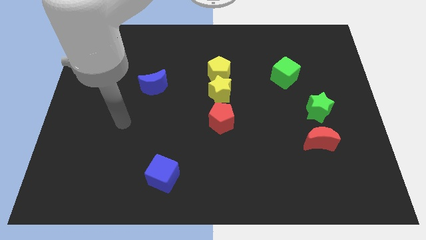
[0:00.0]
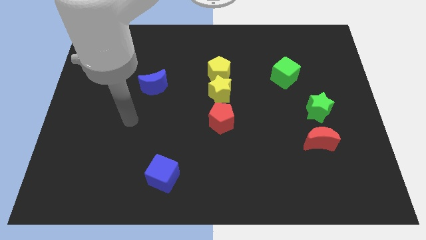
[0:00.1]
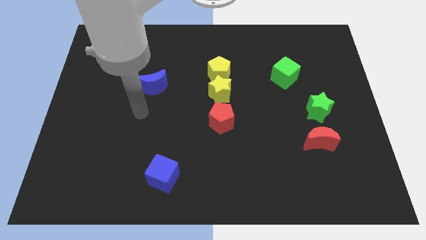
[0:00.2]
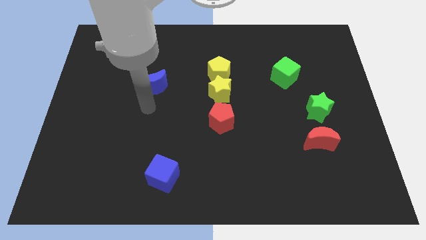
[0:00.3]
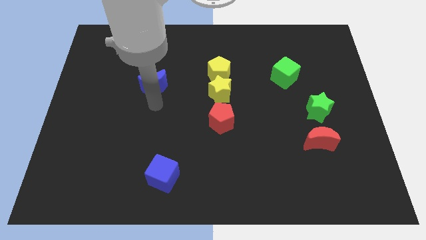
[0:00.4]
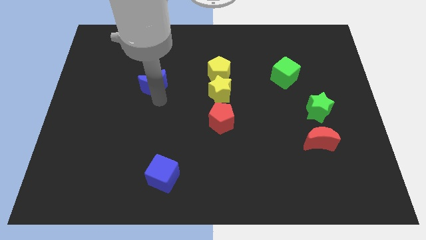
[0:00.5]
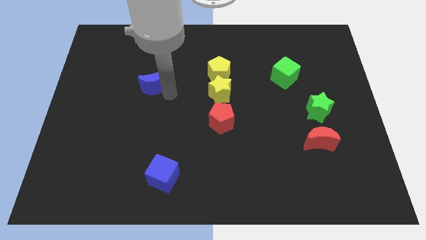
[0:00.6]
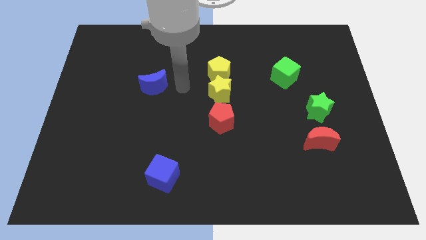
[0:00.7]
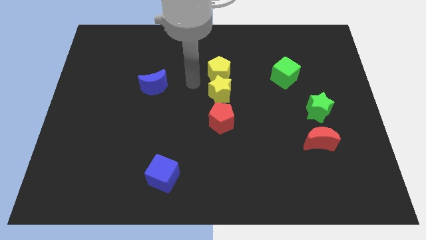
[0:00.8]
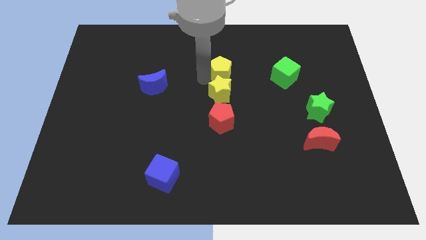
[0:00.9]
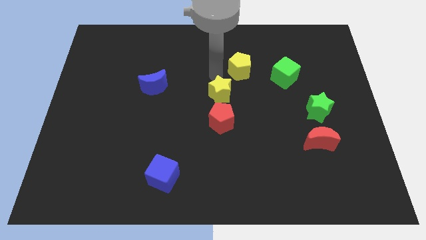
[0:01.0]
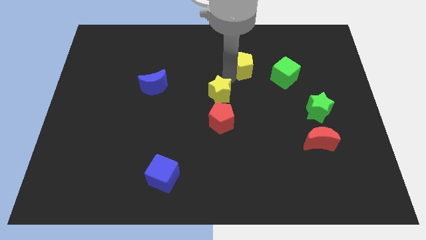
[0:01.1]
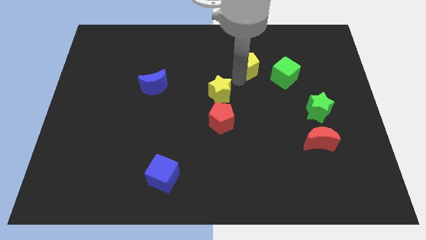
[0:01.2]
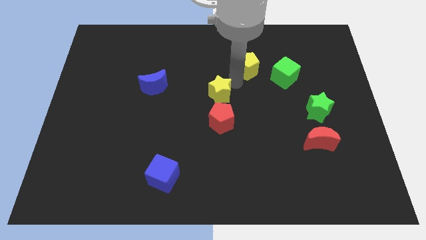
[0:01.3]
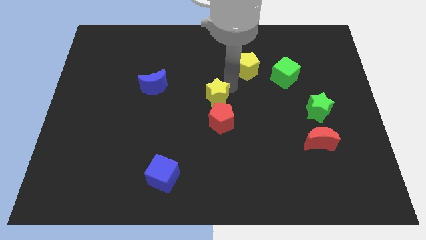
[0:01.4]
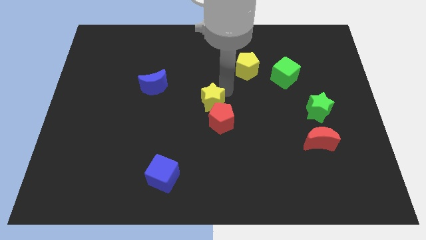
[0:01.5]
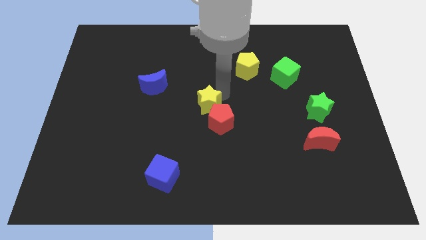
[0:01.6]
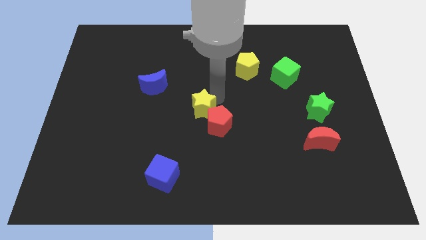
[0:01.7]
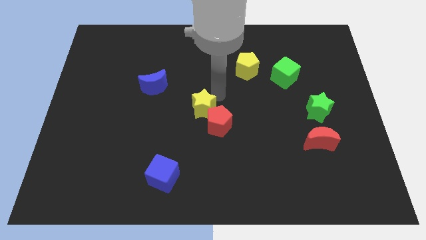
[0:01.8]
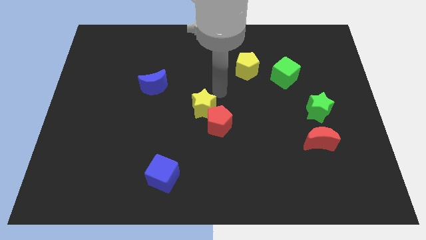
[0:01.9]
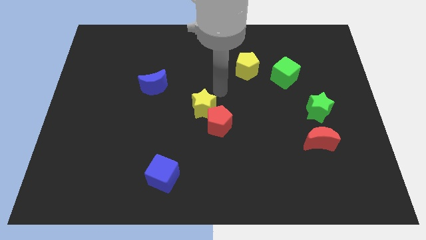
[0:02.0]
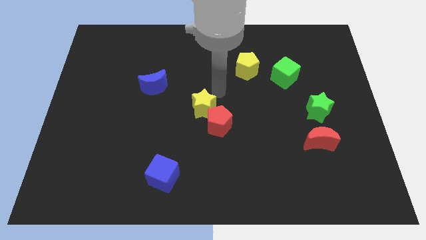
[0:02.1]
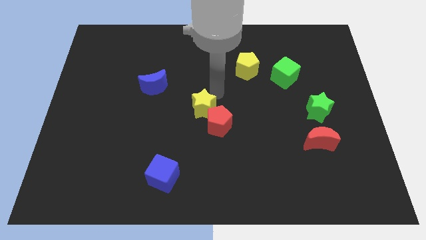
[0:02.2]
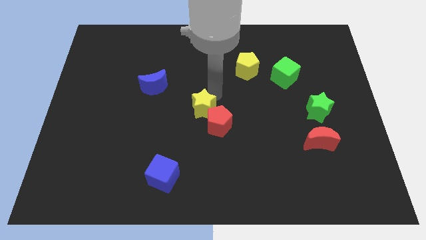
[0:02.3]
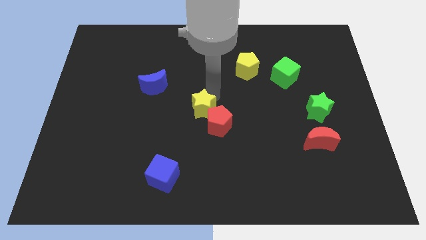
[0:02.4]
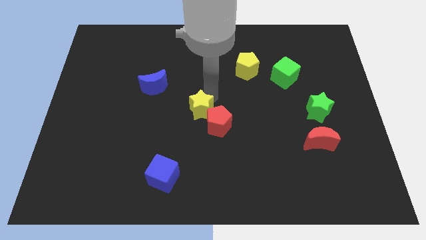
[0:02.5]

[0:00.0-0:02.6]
move the yellow star downwards and then left a little bit

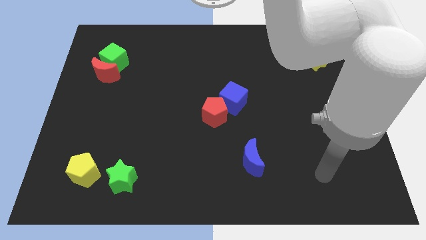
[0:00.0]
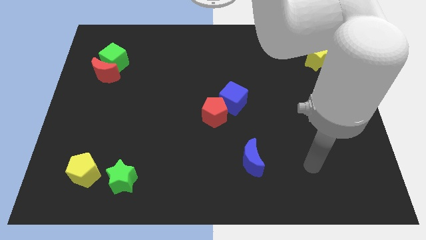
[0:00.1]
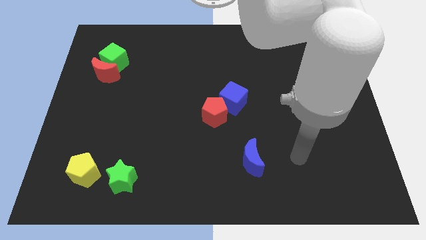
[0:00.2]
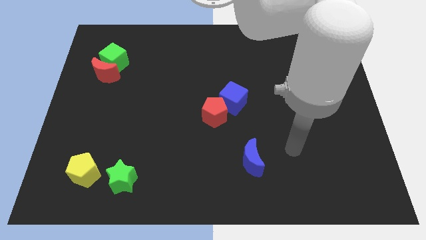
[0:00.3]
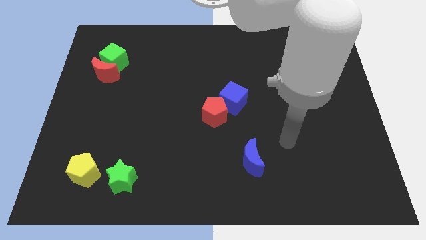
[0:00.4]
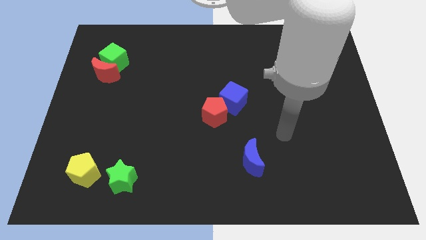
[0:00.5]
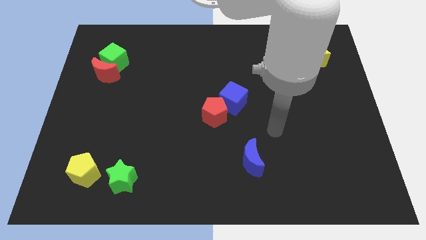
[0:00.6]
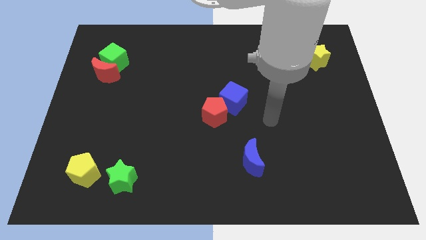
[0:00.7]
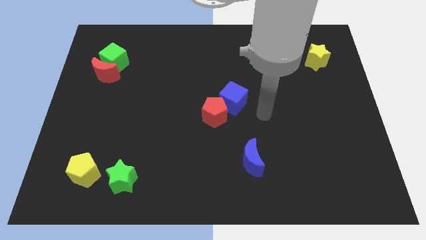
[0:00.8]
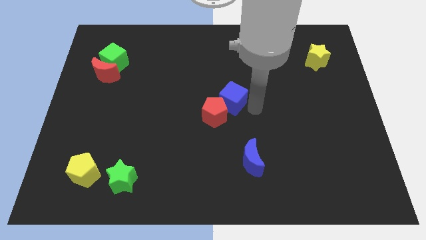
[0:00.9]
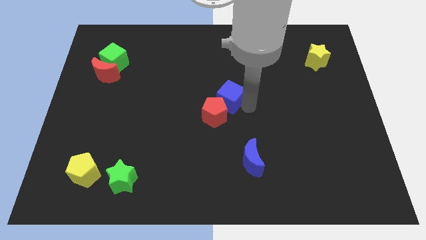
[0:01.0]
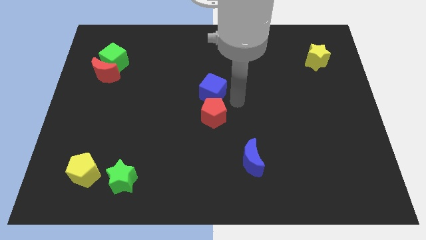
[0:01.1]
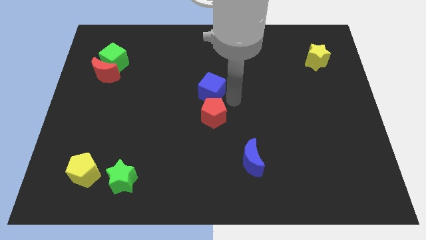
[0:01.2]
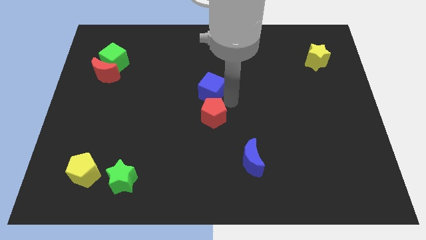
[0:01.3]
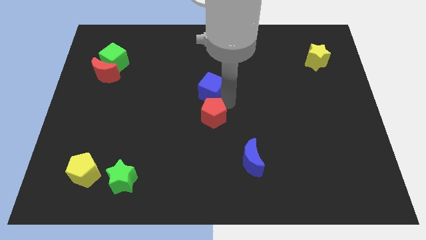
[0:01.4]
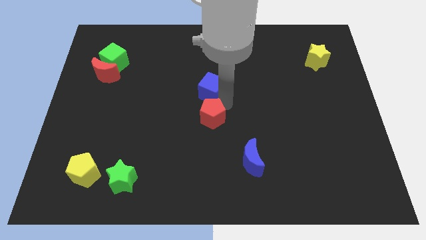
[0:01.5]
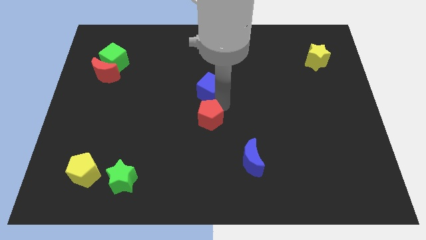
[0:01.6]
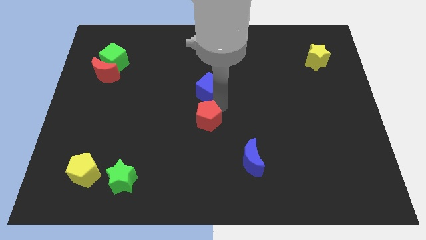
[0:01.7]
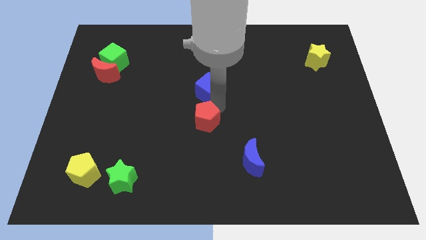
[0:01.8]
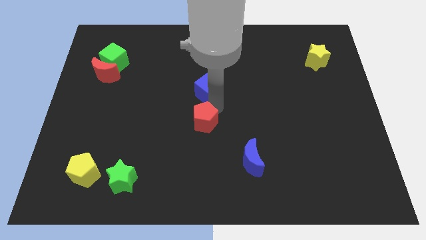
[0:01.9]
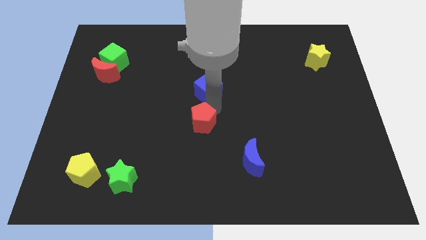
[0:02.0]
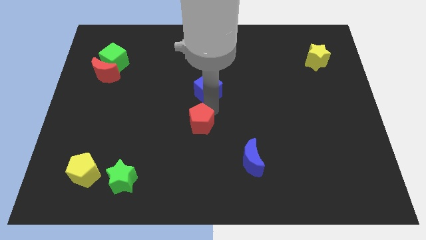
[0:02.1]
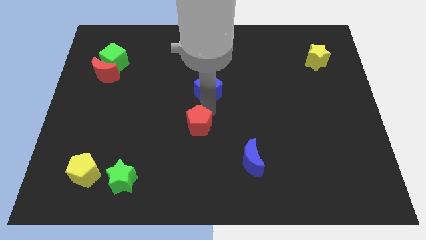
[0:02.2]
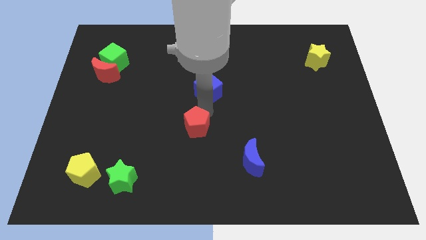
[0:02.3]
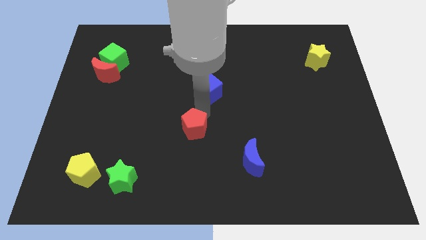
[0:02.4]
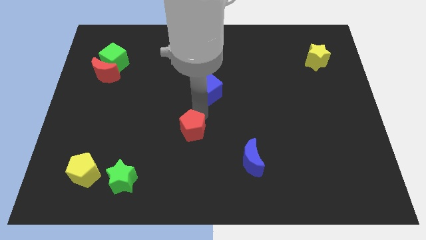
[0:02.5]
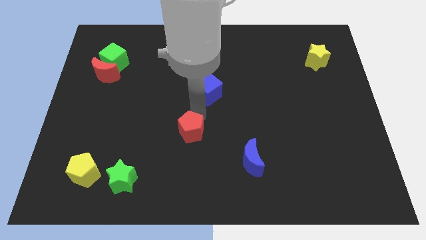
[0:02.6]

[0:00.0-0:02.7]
slide the red pentagon downwards and then to the left a bit

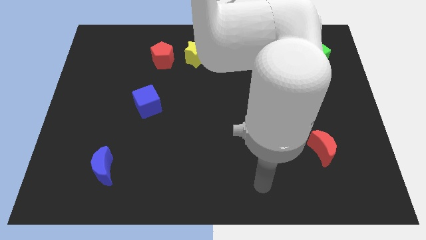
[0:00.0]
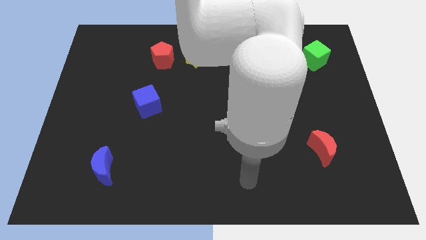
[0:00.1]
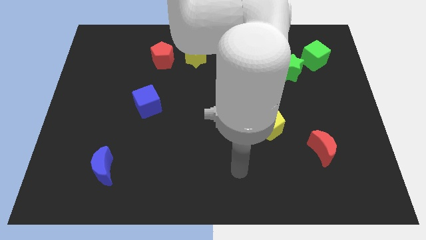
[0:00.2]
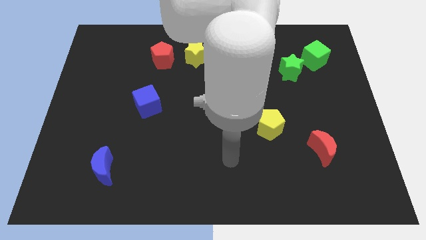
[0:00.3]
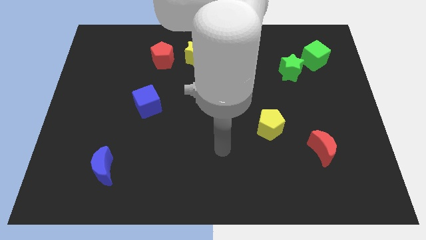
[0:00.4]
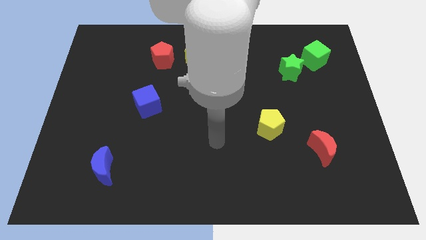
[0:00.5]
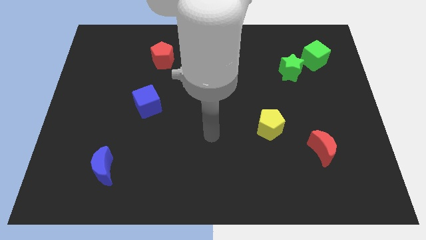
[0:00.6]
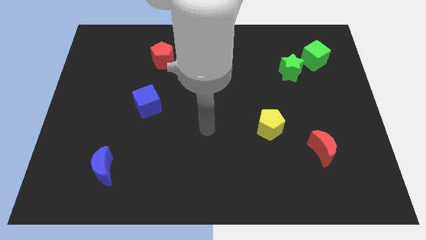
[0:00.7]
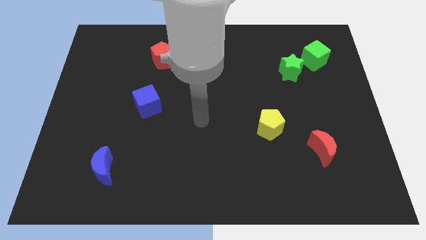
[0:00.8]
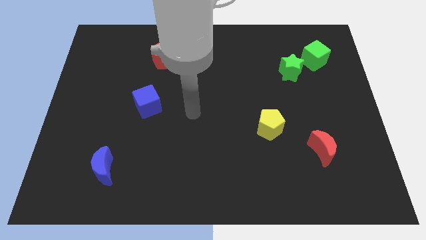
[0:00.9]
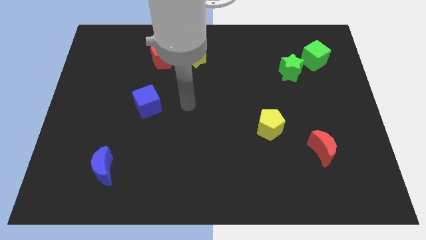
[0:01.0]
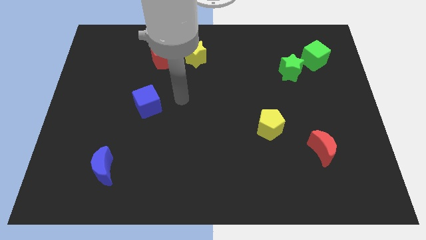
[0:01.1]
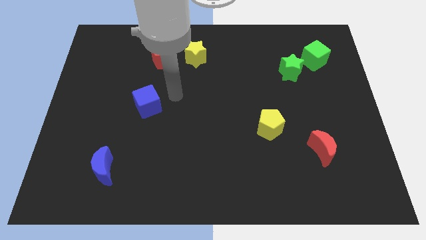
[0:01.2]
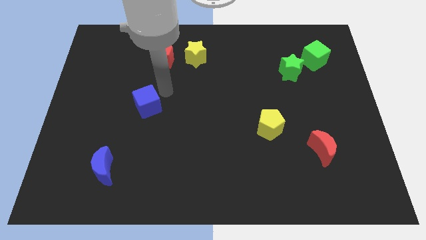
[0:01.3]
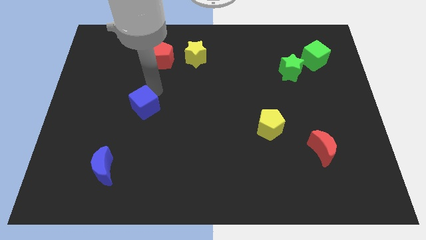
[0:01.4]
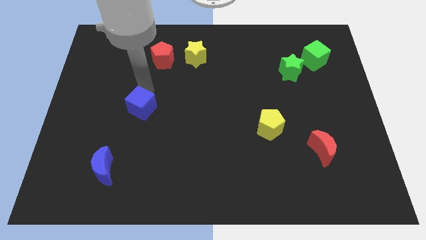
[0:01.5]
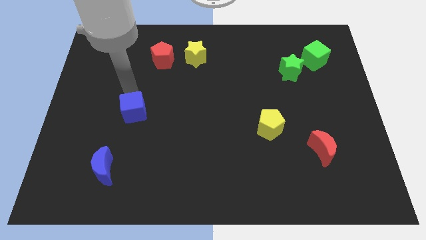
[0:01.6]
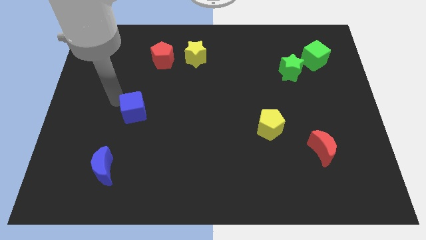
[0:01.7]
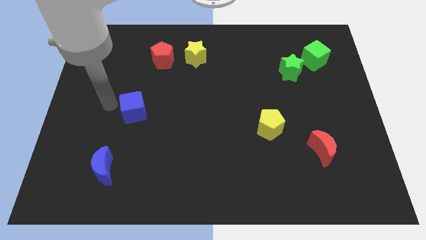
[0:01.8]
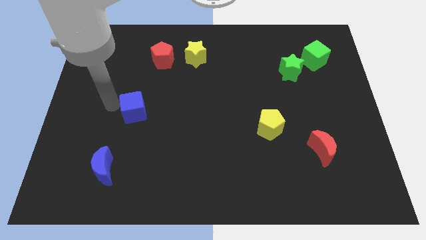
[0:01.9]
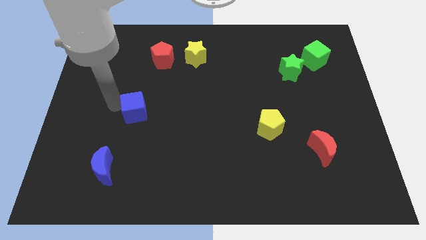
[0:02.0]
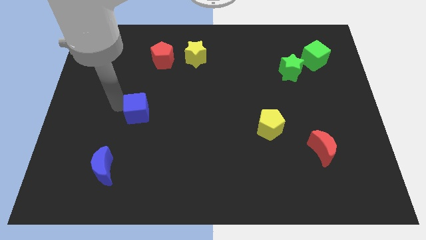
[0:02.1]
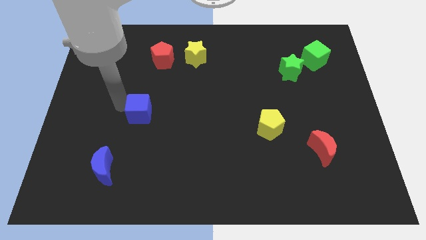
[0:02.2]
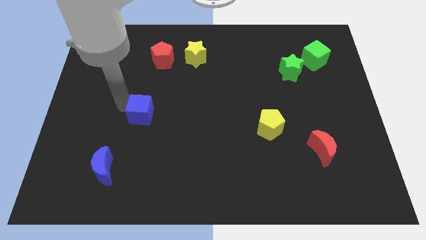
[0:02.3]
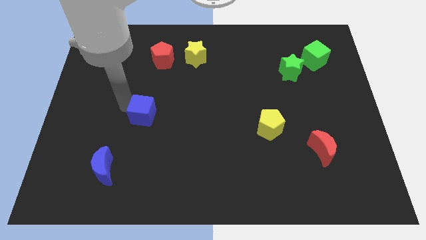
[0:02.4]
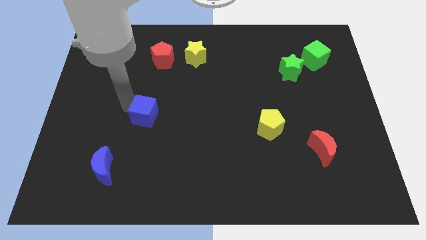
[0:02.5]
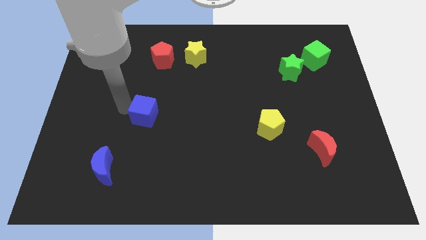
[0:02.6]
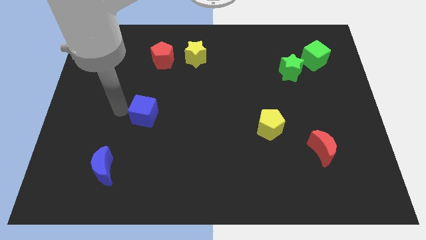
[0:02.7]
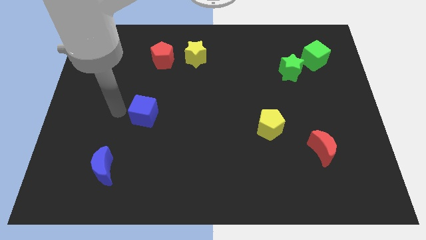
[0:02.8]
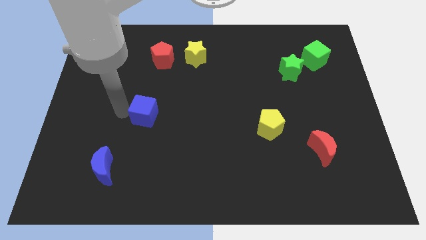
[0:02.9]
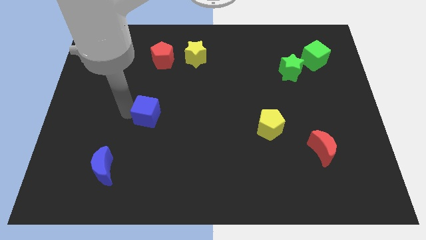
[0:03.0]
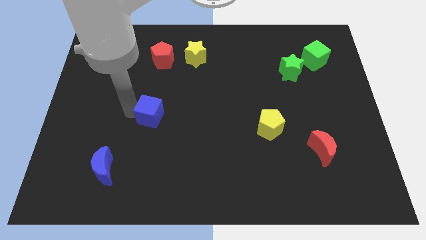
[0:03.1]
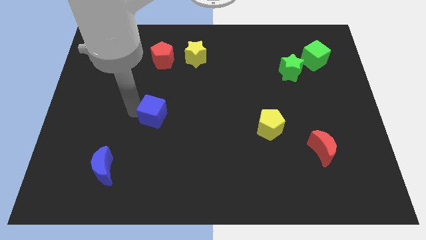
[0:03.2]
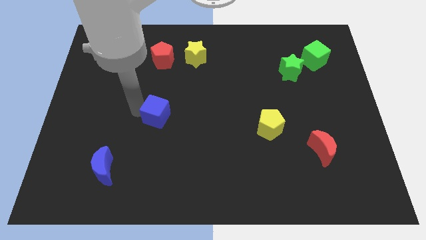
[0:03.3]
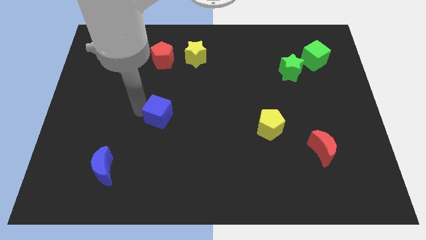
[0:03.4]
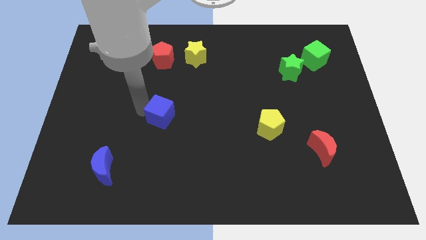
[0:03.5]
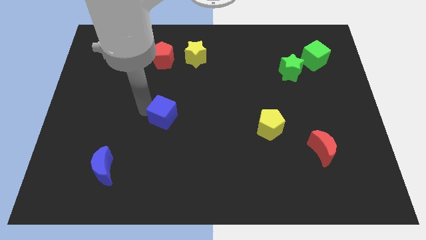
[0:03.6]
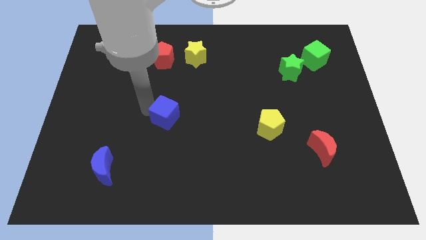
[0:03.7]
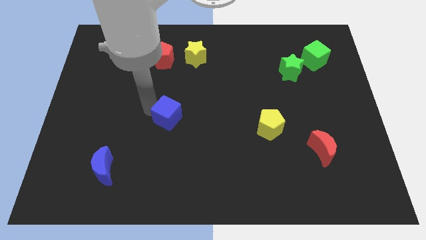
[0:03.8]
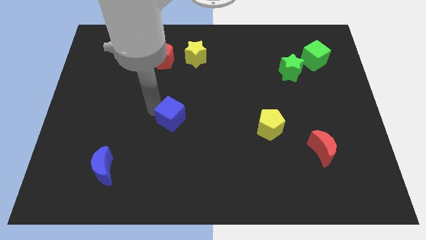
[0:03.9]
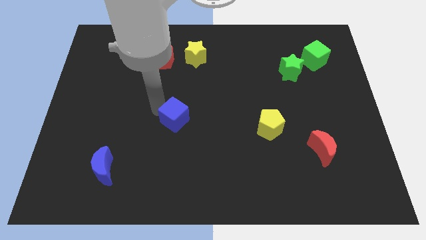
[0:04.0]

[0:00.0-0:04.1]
slightly push the blue cube down and to the right diagonally
